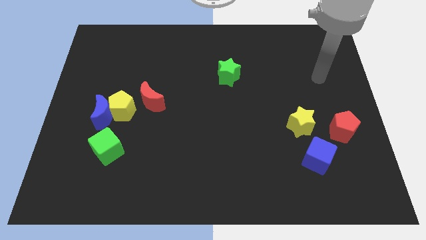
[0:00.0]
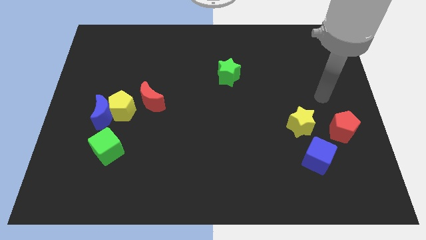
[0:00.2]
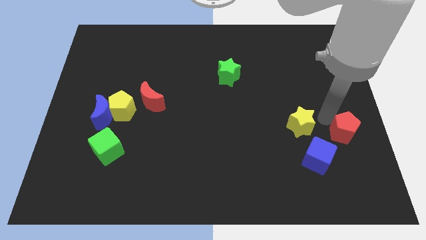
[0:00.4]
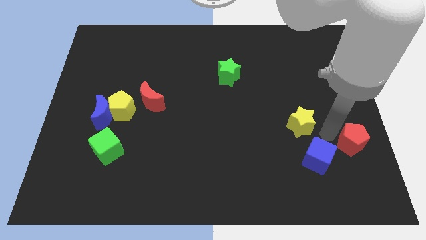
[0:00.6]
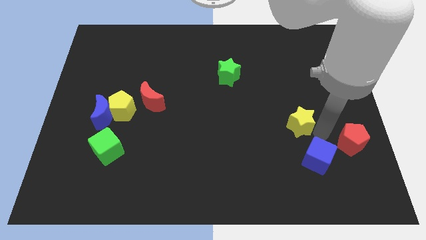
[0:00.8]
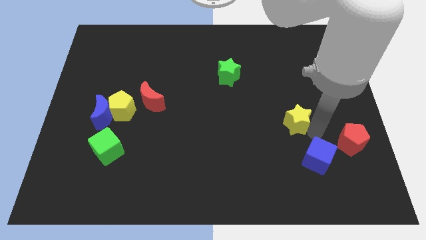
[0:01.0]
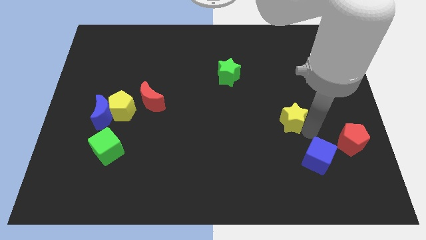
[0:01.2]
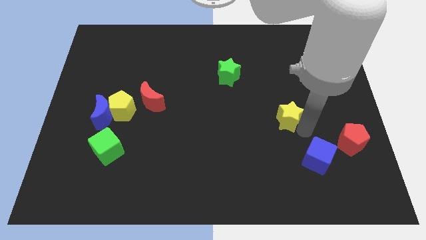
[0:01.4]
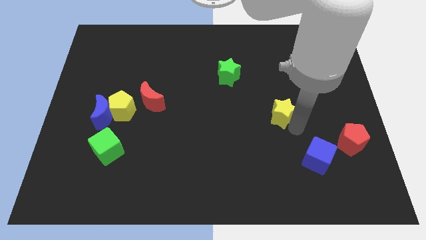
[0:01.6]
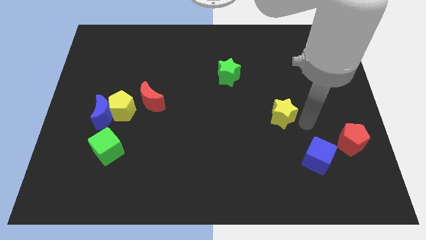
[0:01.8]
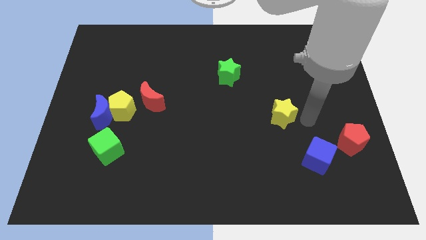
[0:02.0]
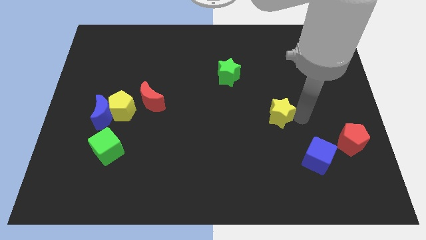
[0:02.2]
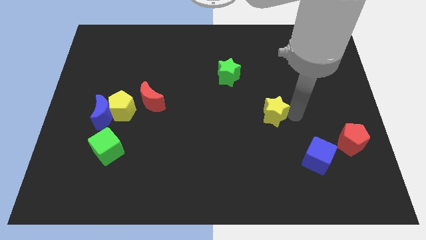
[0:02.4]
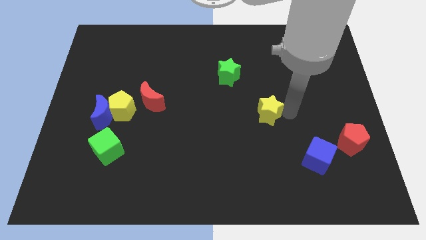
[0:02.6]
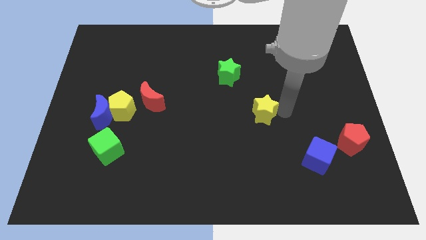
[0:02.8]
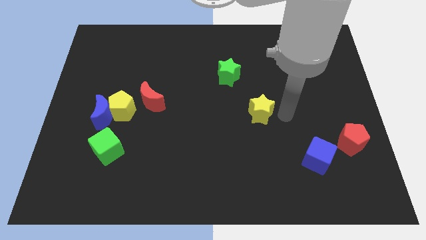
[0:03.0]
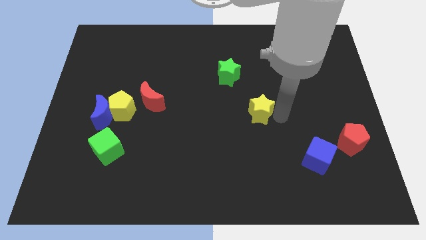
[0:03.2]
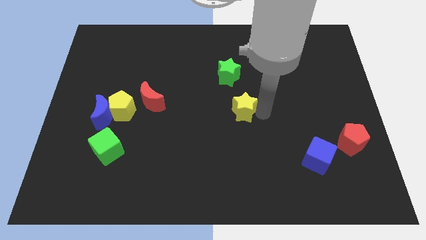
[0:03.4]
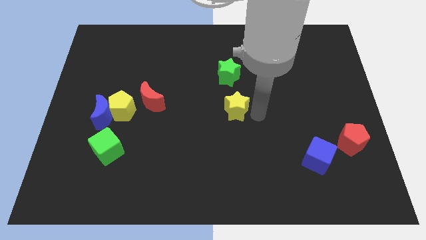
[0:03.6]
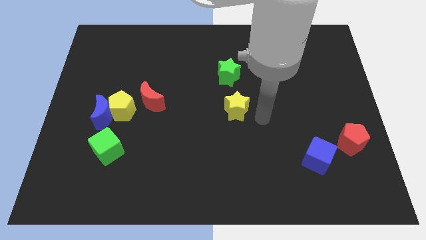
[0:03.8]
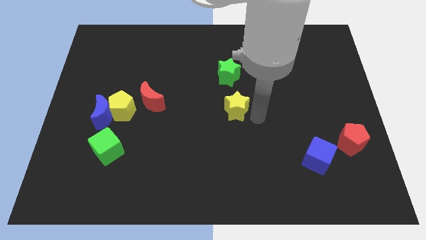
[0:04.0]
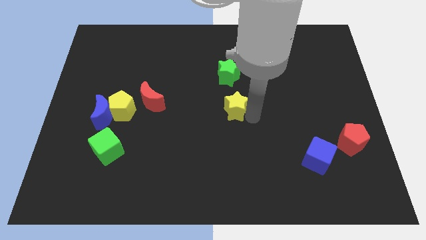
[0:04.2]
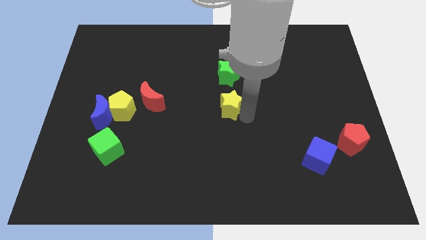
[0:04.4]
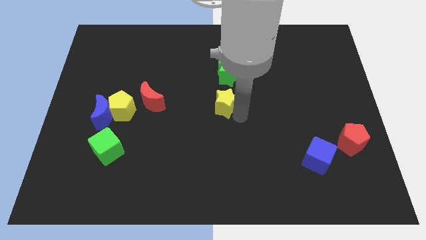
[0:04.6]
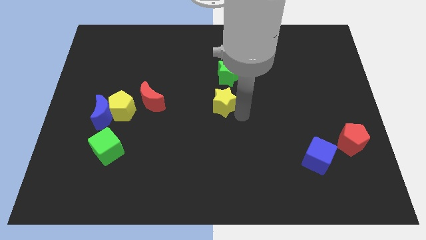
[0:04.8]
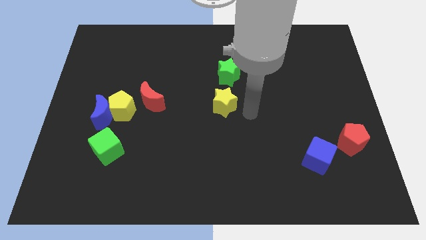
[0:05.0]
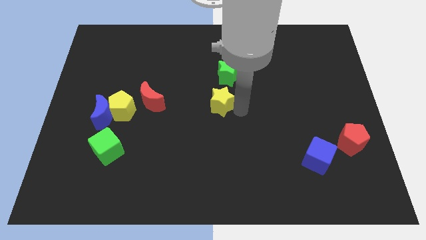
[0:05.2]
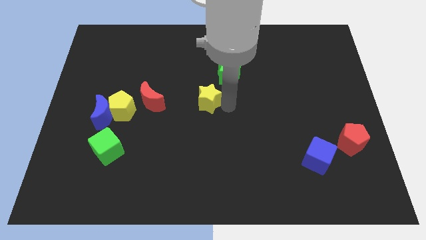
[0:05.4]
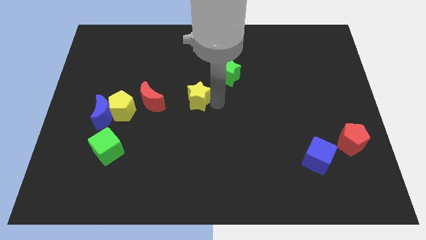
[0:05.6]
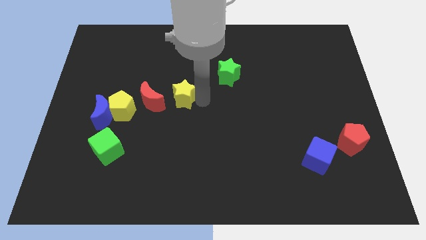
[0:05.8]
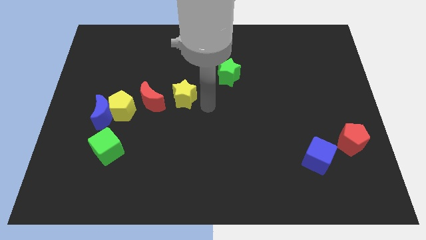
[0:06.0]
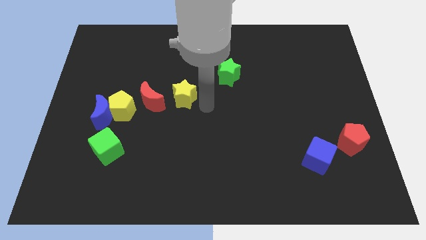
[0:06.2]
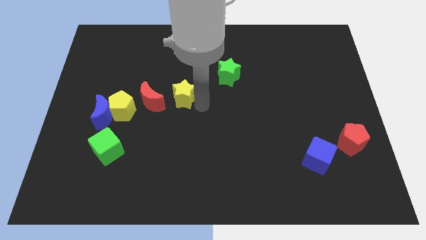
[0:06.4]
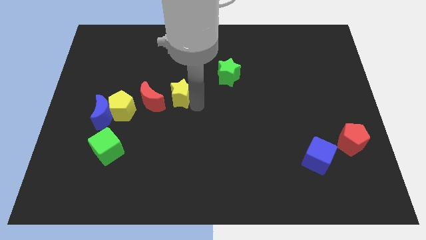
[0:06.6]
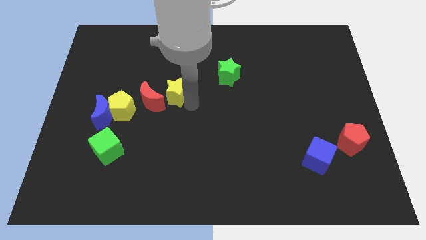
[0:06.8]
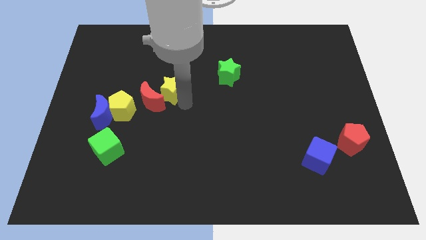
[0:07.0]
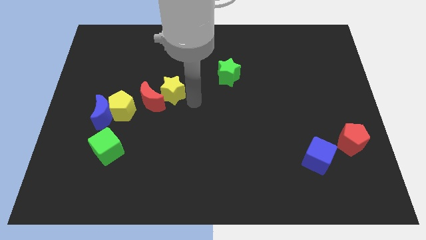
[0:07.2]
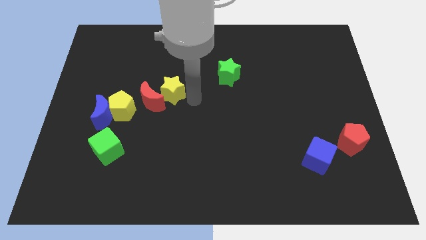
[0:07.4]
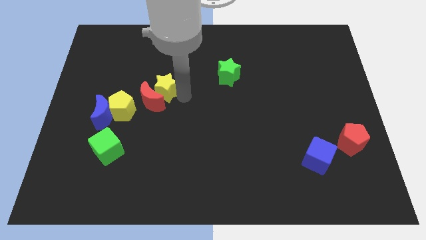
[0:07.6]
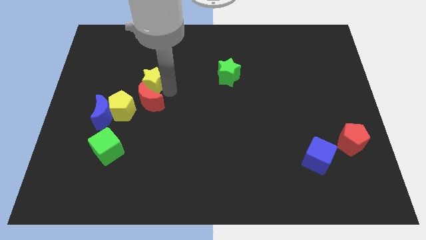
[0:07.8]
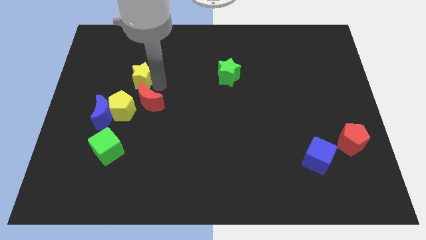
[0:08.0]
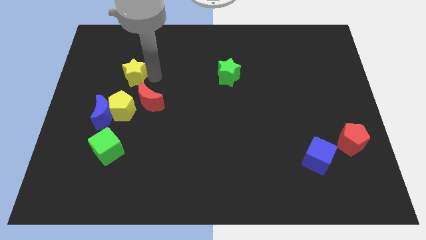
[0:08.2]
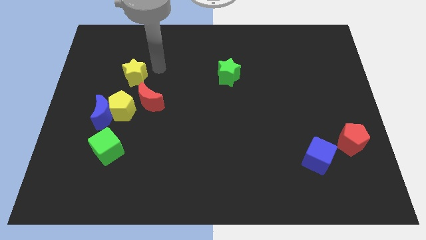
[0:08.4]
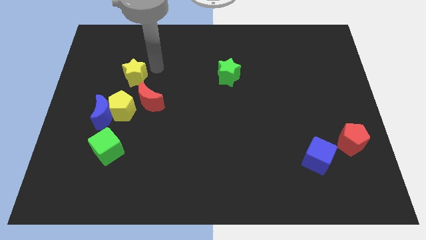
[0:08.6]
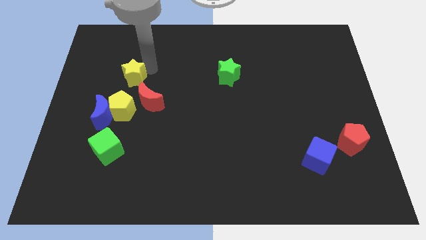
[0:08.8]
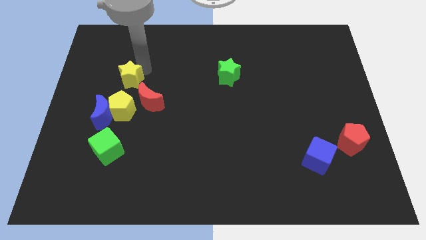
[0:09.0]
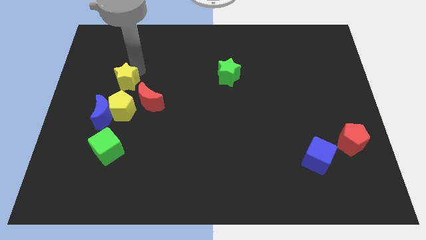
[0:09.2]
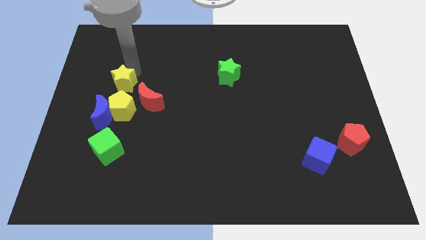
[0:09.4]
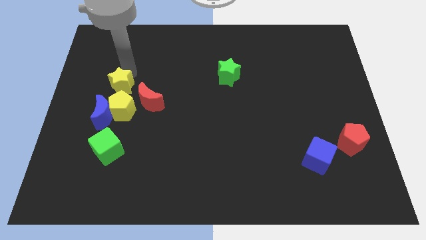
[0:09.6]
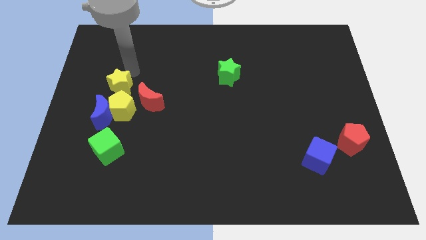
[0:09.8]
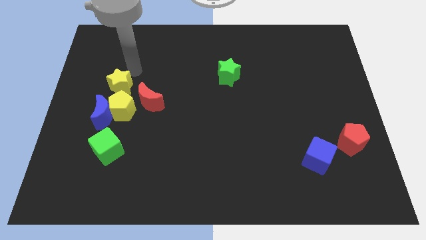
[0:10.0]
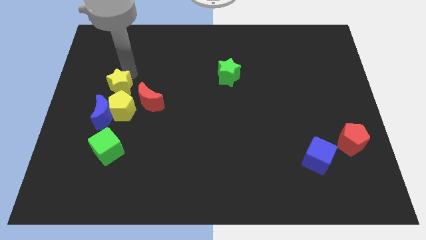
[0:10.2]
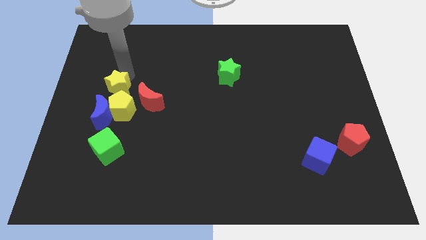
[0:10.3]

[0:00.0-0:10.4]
move the yellow star to the left of the red moon
